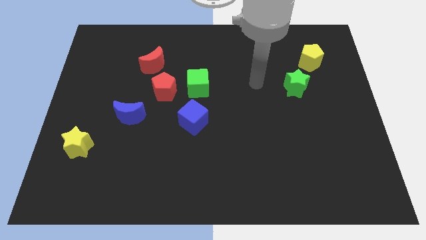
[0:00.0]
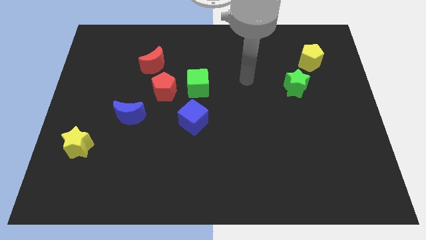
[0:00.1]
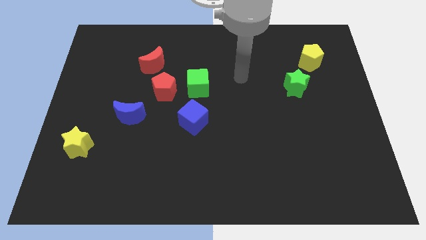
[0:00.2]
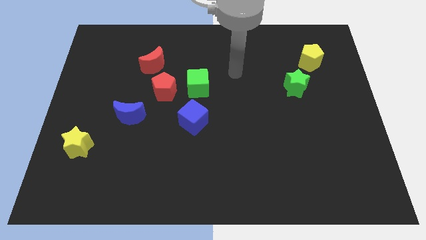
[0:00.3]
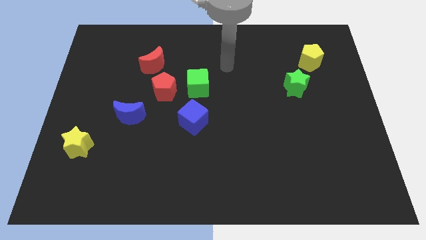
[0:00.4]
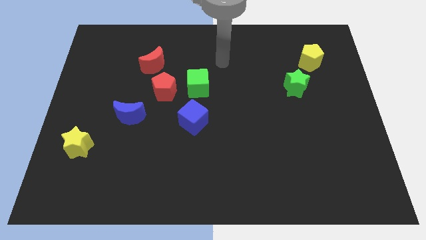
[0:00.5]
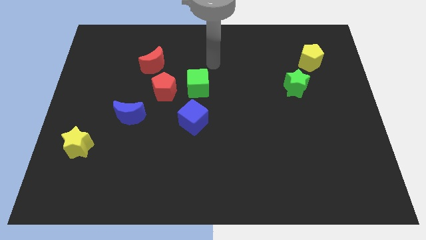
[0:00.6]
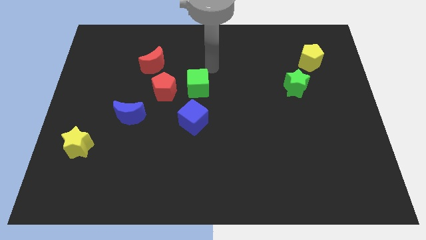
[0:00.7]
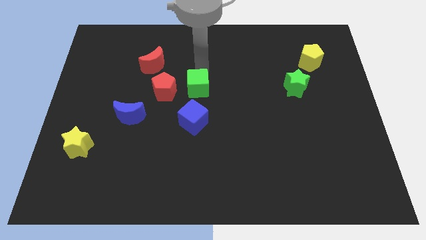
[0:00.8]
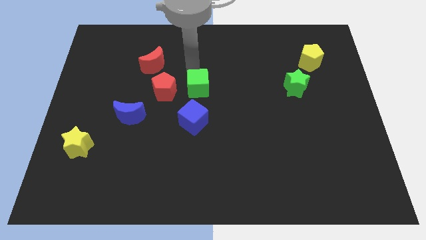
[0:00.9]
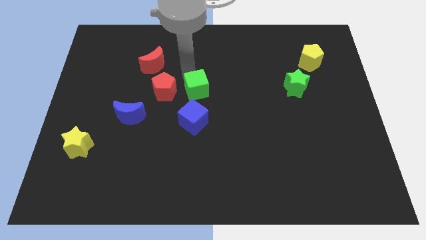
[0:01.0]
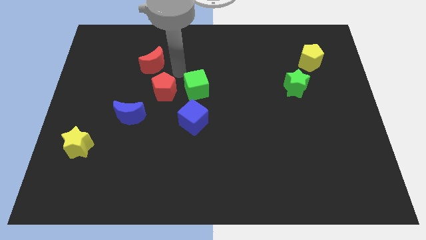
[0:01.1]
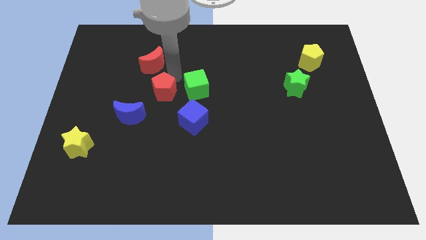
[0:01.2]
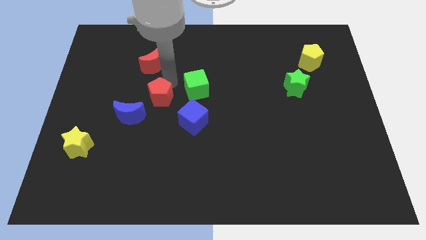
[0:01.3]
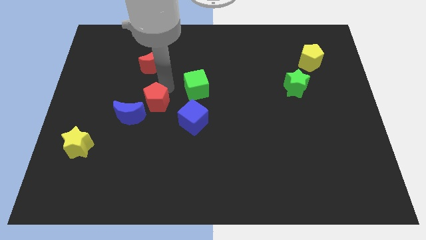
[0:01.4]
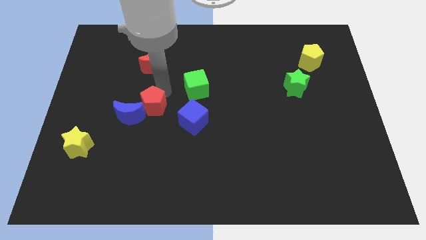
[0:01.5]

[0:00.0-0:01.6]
separate the red pentagon from the green cube and red moon

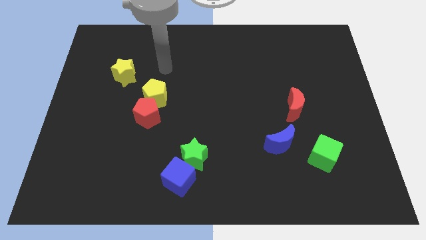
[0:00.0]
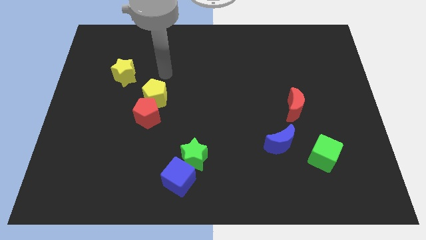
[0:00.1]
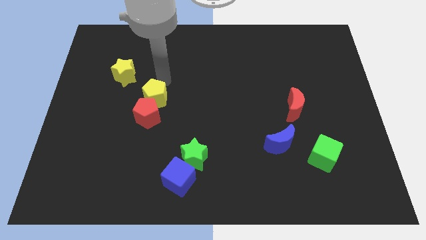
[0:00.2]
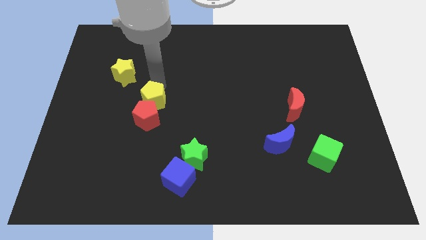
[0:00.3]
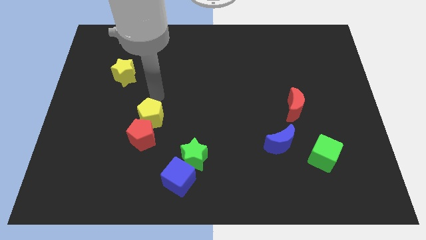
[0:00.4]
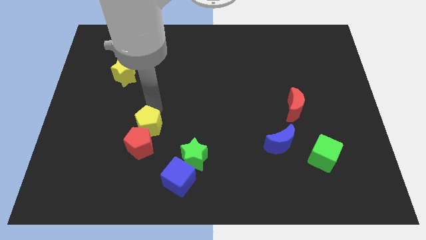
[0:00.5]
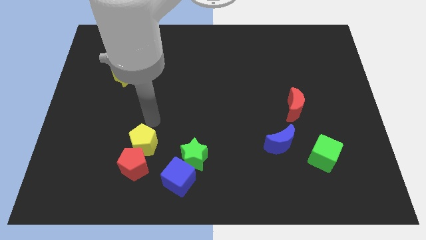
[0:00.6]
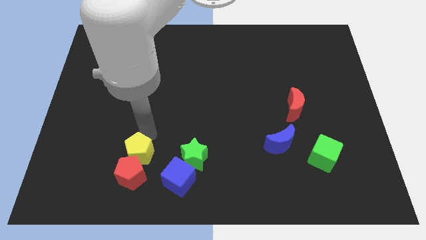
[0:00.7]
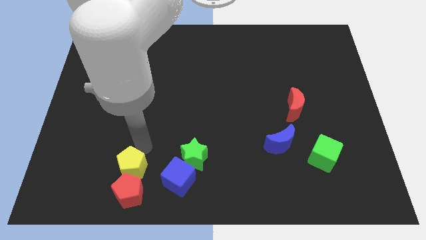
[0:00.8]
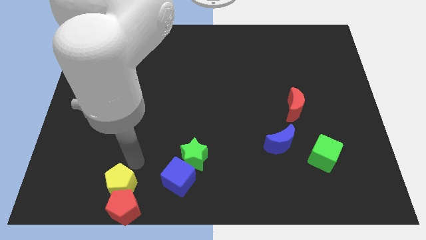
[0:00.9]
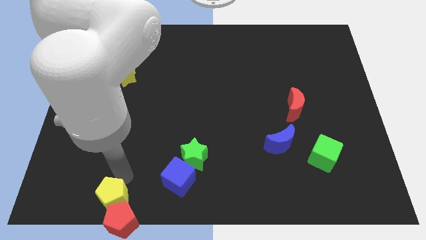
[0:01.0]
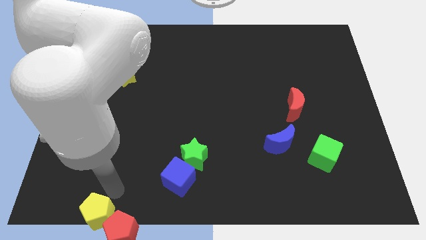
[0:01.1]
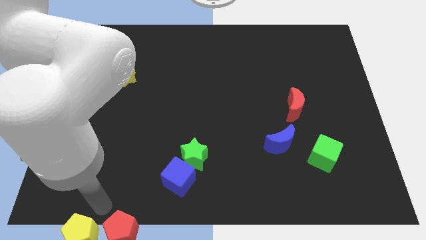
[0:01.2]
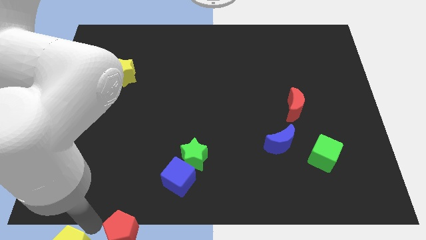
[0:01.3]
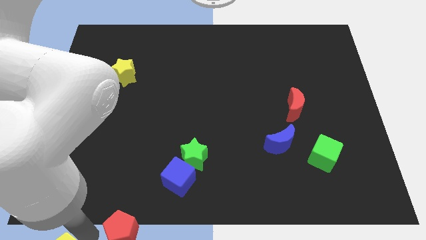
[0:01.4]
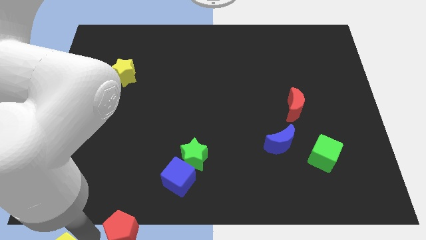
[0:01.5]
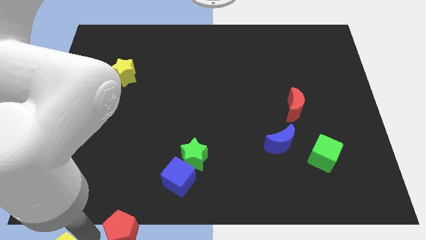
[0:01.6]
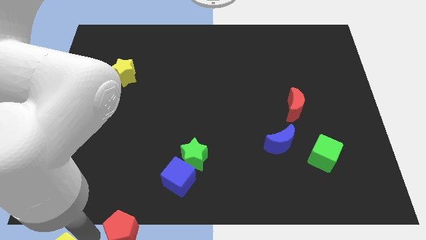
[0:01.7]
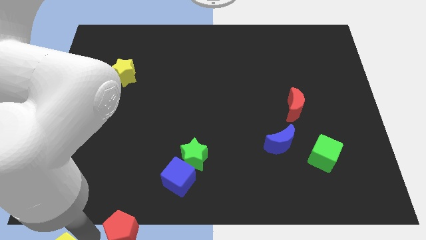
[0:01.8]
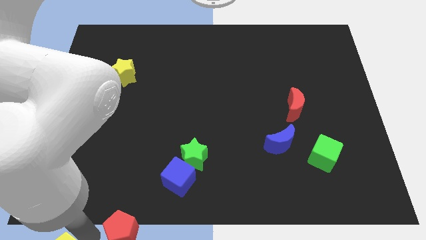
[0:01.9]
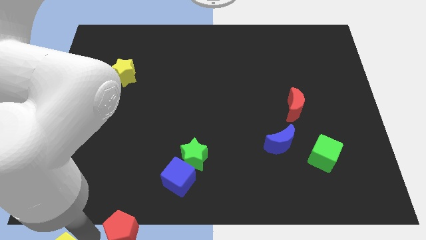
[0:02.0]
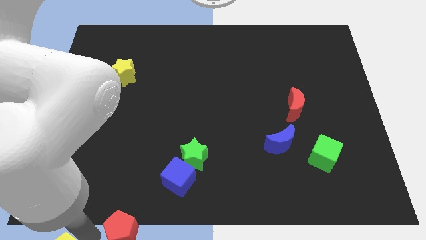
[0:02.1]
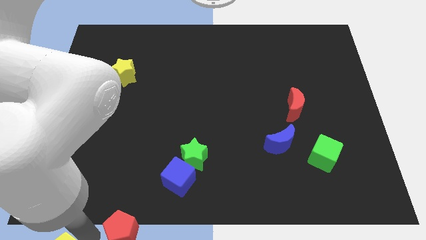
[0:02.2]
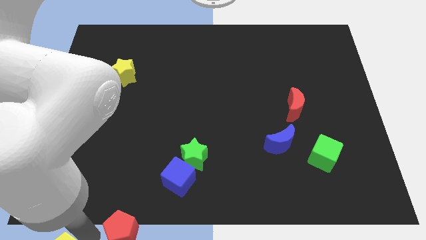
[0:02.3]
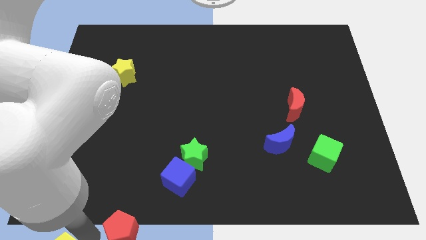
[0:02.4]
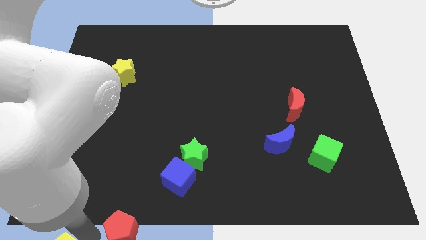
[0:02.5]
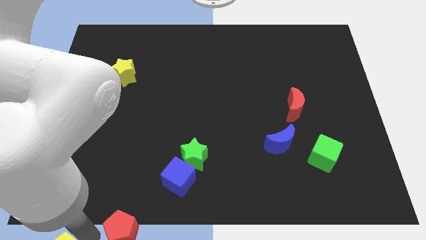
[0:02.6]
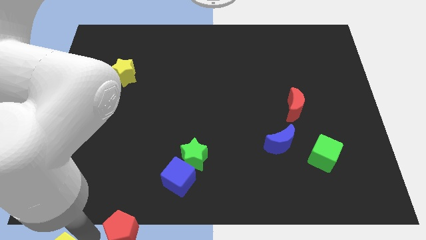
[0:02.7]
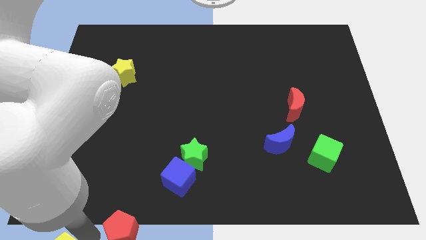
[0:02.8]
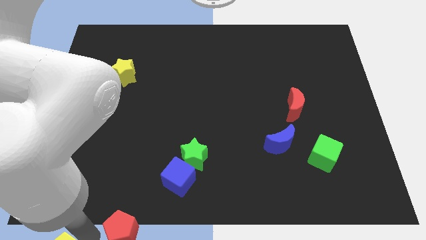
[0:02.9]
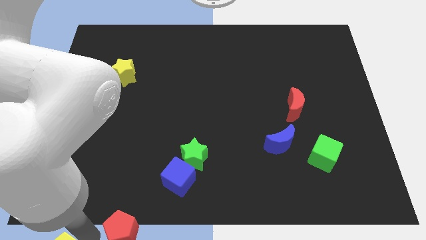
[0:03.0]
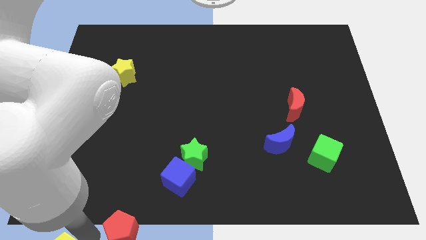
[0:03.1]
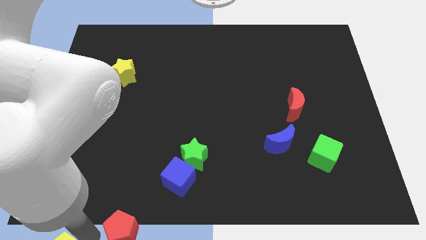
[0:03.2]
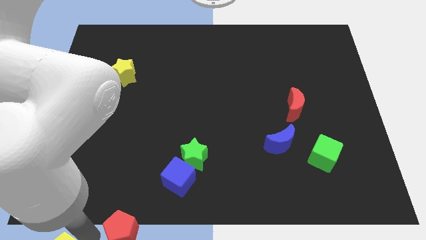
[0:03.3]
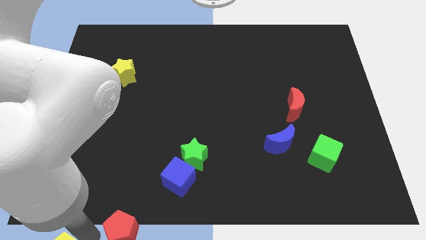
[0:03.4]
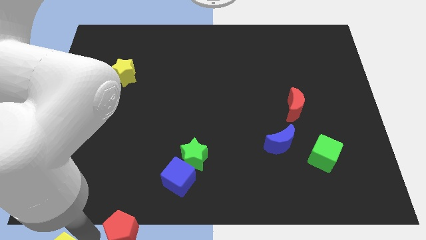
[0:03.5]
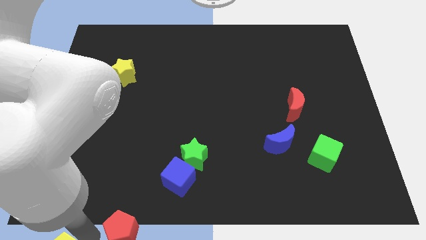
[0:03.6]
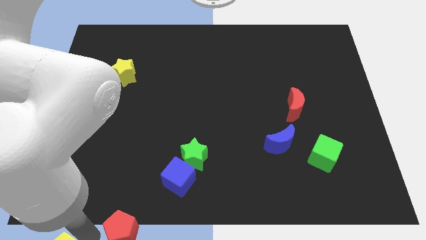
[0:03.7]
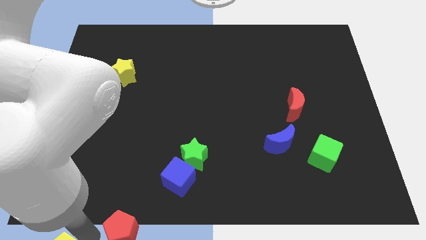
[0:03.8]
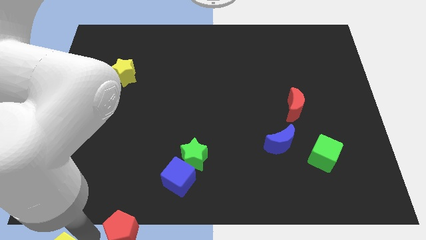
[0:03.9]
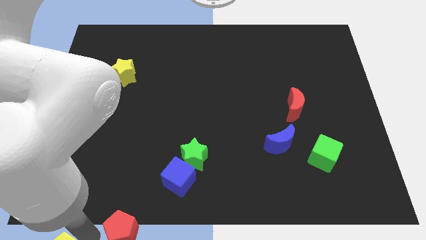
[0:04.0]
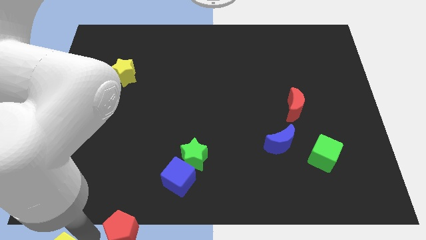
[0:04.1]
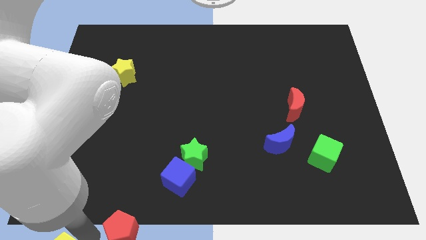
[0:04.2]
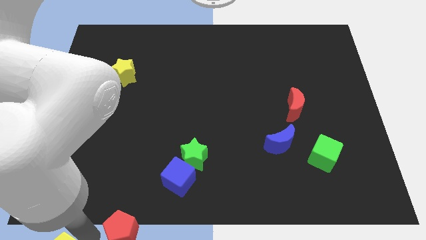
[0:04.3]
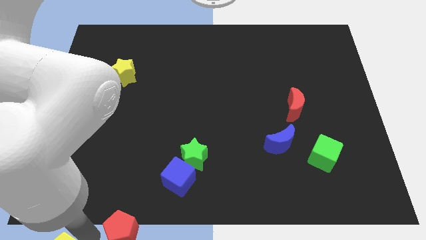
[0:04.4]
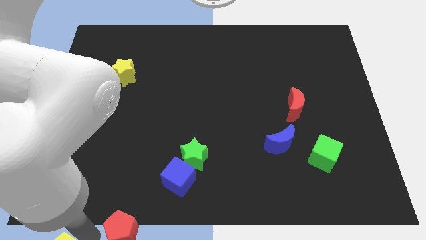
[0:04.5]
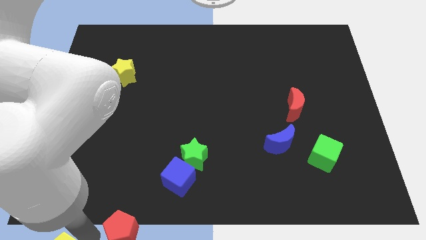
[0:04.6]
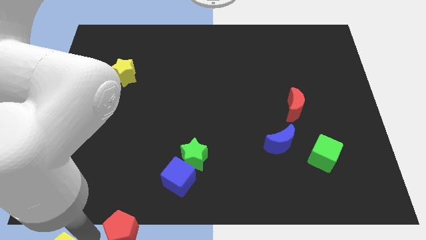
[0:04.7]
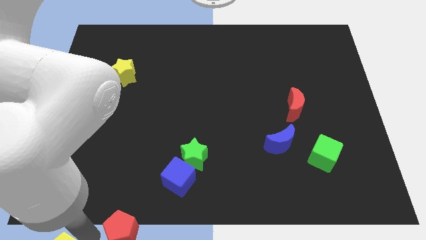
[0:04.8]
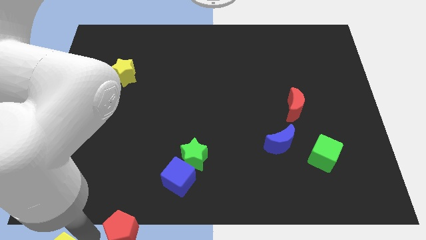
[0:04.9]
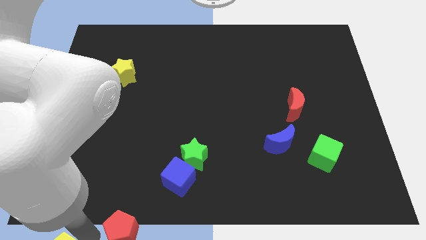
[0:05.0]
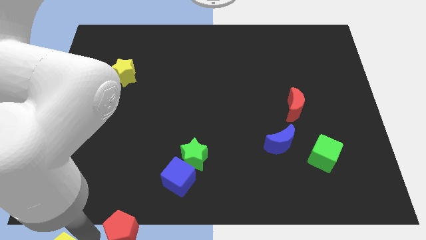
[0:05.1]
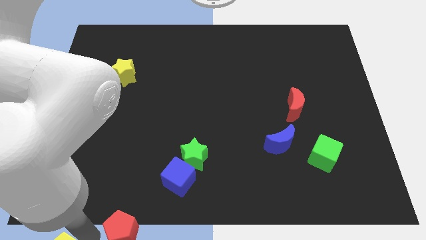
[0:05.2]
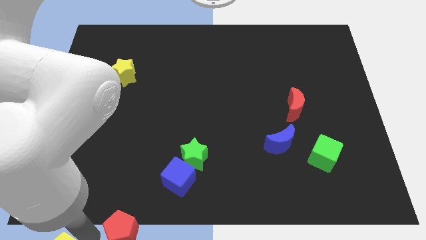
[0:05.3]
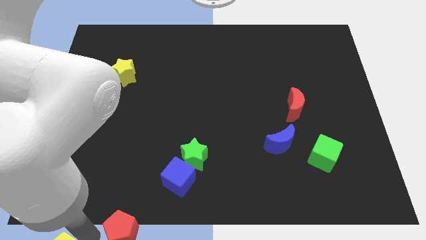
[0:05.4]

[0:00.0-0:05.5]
separate the red pentagon from the yellow pentagon

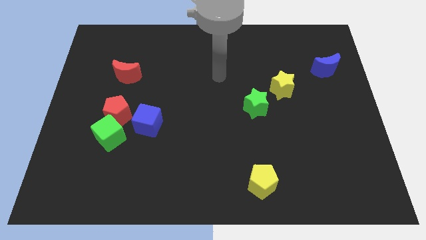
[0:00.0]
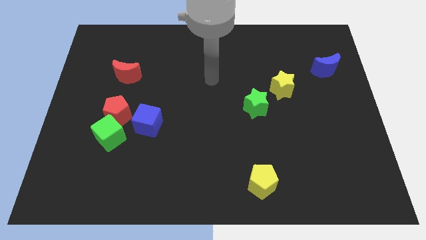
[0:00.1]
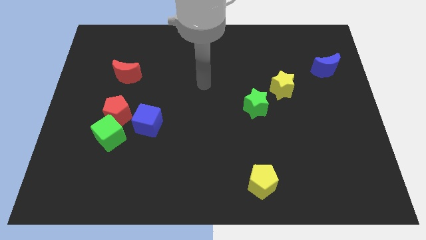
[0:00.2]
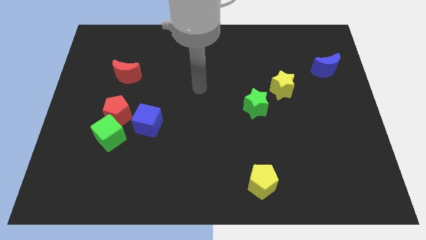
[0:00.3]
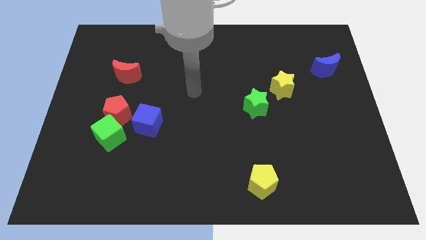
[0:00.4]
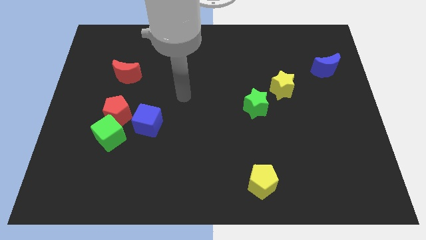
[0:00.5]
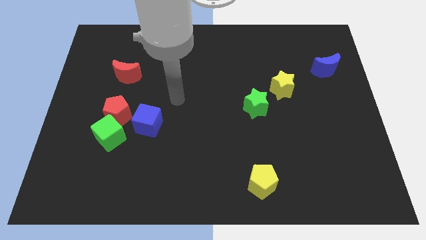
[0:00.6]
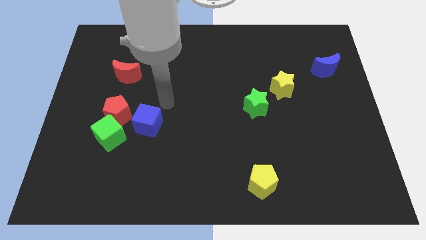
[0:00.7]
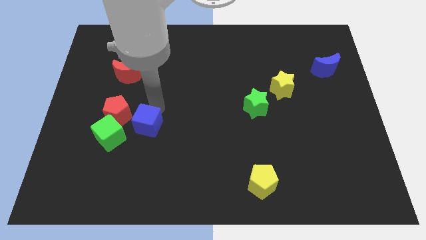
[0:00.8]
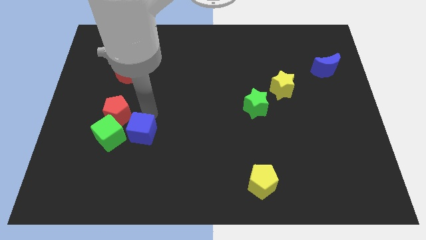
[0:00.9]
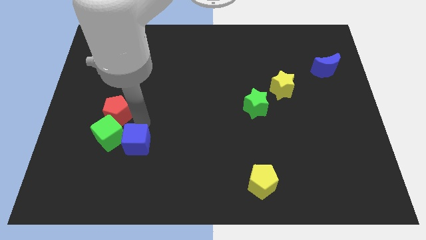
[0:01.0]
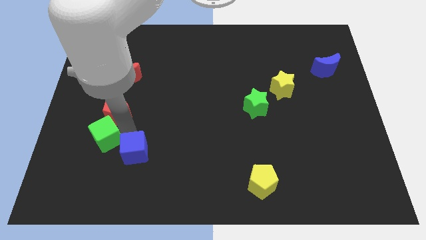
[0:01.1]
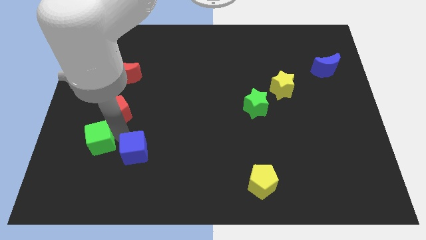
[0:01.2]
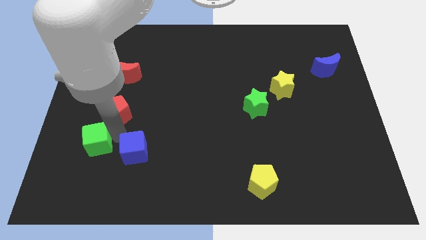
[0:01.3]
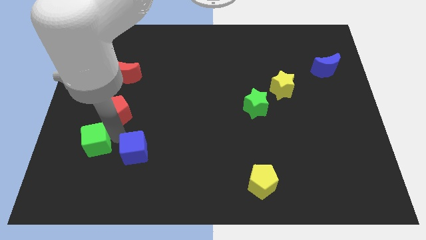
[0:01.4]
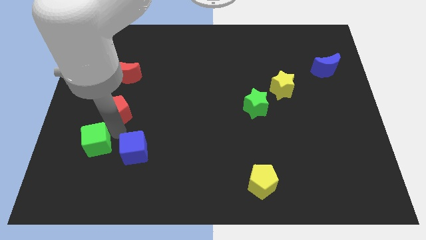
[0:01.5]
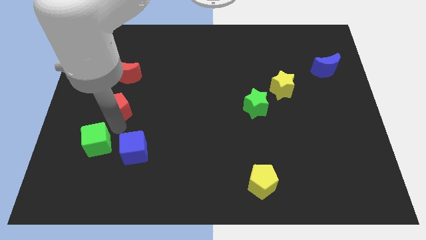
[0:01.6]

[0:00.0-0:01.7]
move the red pentagon away from the green cube and blue cube

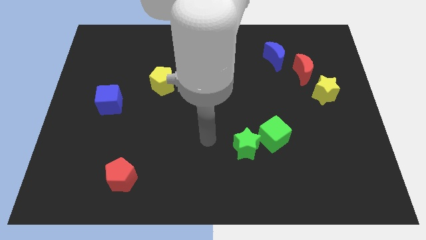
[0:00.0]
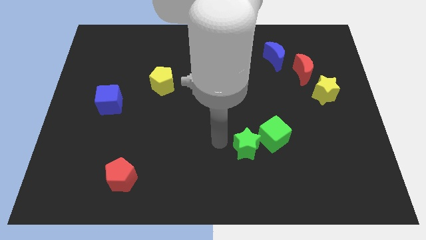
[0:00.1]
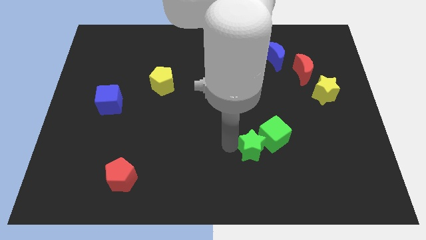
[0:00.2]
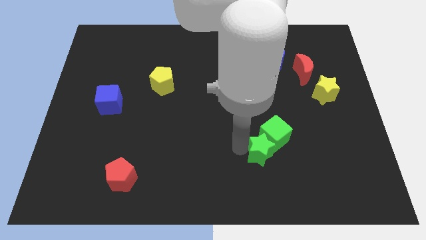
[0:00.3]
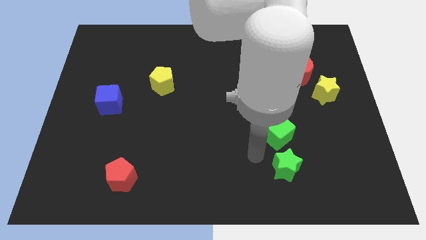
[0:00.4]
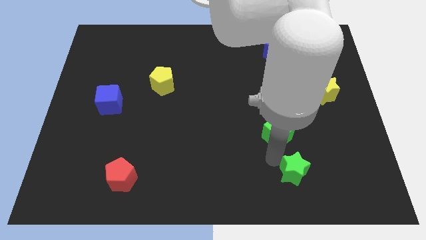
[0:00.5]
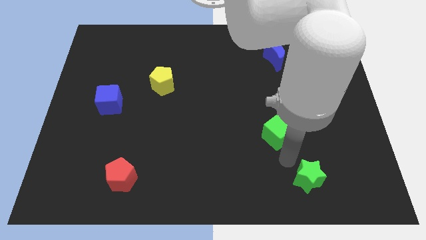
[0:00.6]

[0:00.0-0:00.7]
move the green cube away from the green star

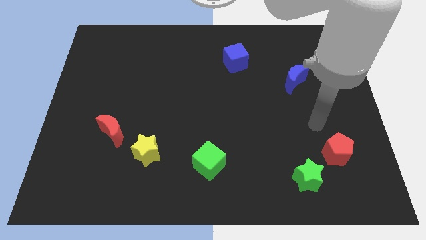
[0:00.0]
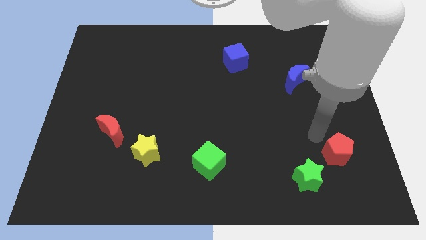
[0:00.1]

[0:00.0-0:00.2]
separate the red pentagon from the green star
